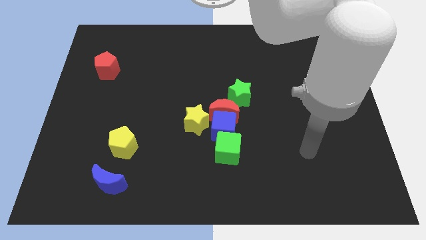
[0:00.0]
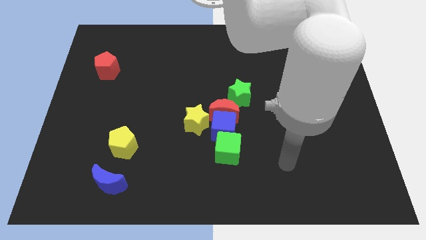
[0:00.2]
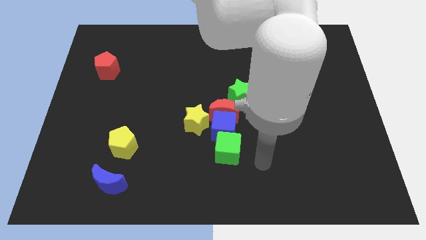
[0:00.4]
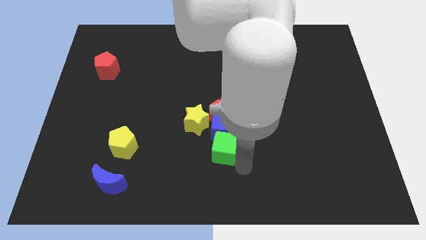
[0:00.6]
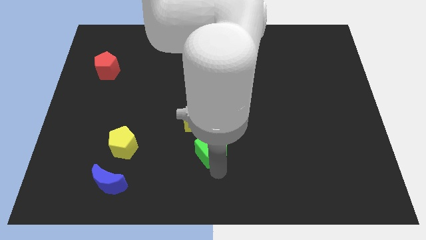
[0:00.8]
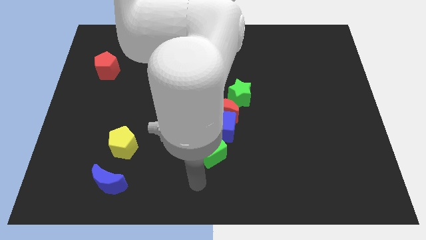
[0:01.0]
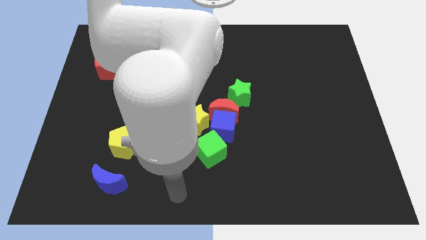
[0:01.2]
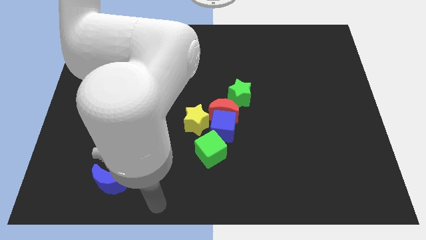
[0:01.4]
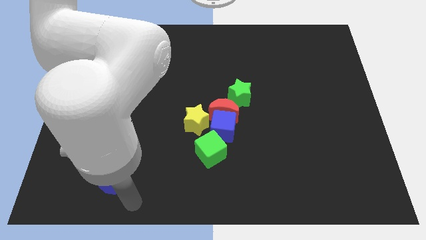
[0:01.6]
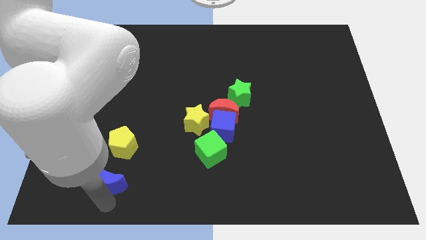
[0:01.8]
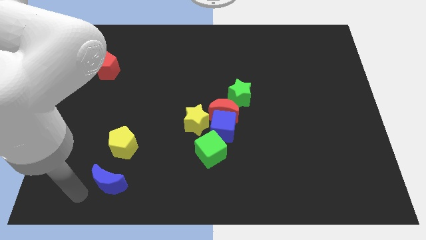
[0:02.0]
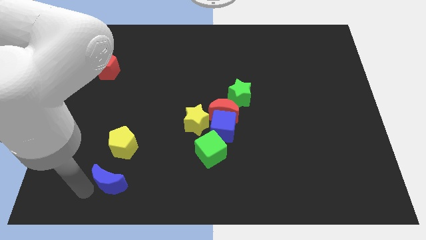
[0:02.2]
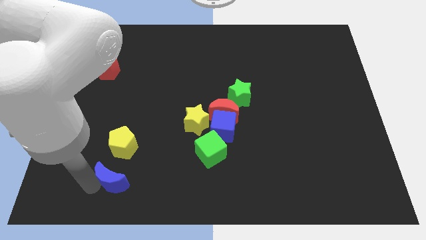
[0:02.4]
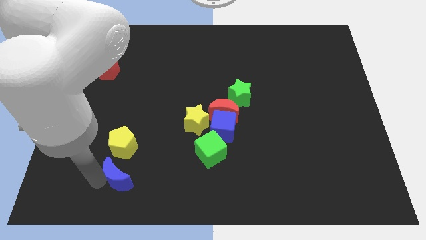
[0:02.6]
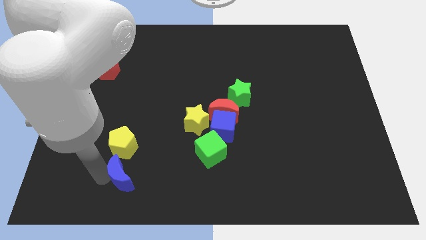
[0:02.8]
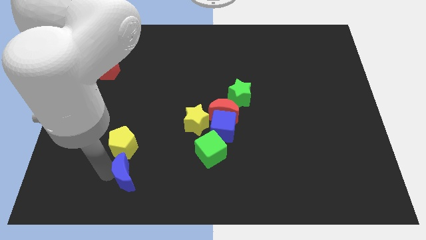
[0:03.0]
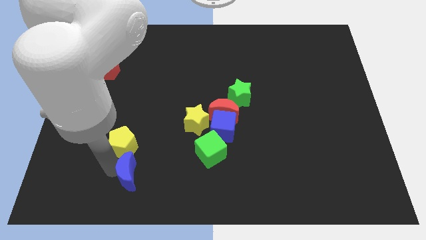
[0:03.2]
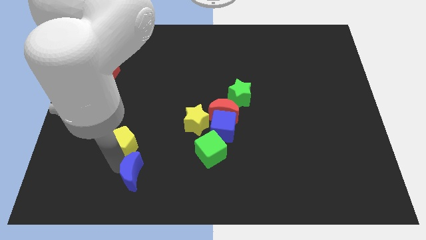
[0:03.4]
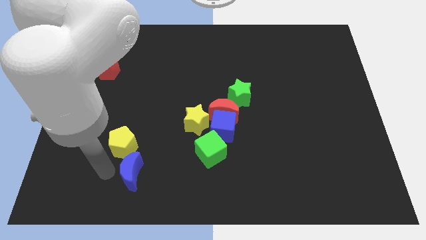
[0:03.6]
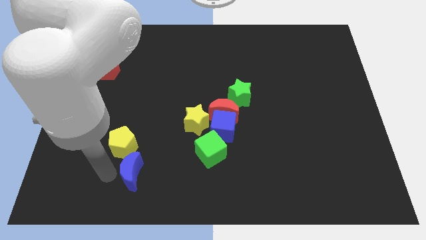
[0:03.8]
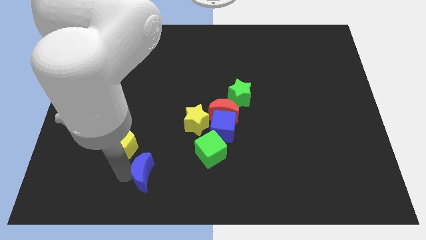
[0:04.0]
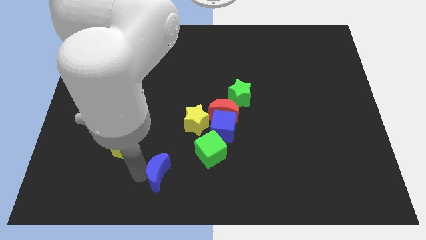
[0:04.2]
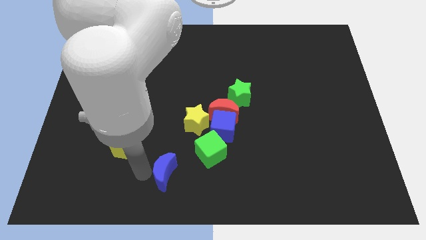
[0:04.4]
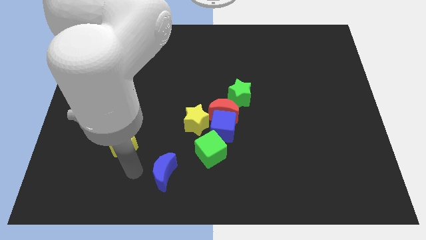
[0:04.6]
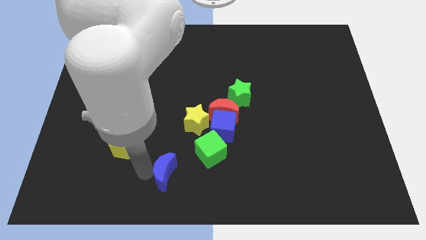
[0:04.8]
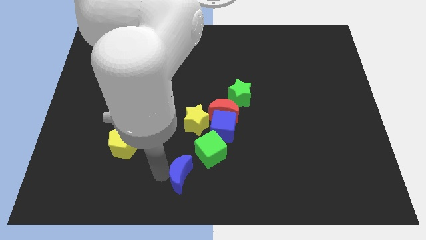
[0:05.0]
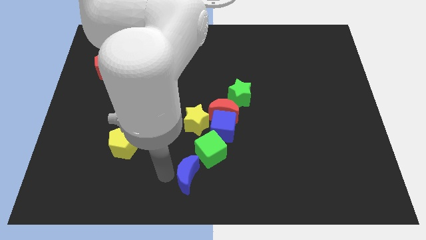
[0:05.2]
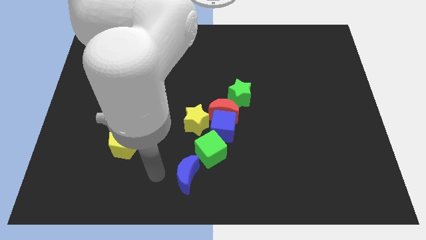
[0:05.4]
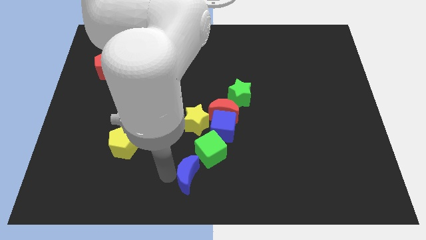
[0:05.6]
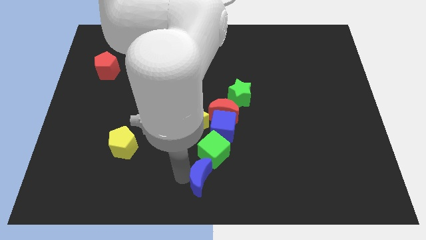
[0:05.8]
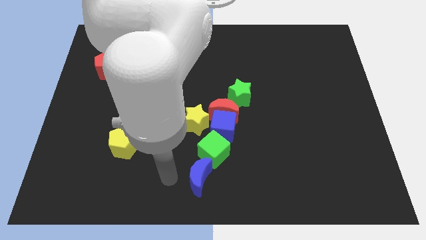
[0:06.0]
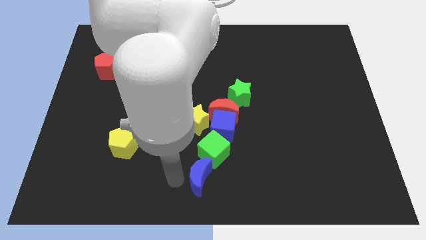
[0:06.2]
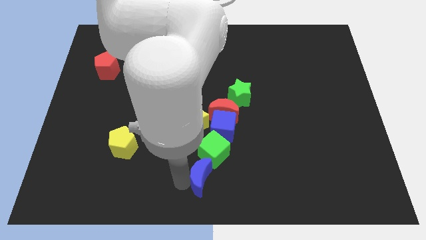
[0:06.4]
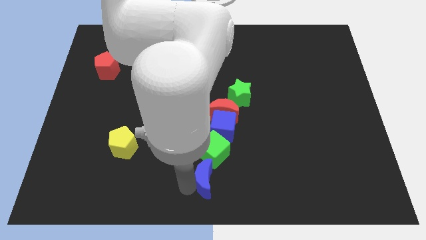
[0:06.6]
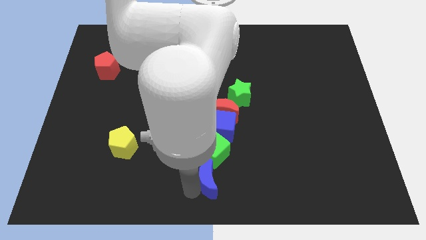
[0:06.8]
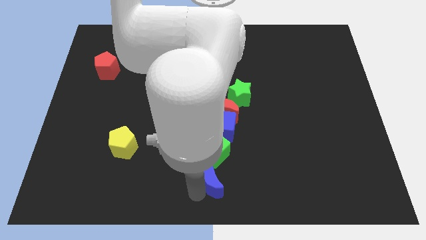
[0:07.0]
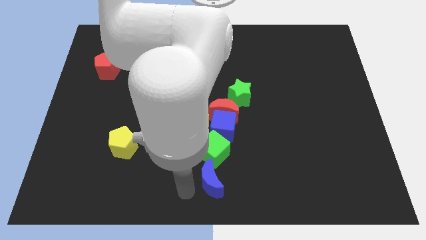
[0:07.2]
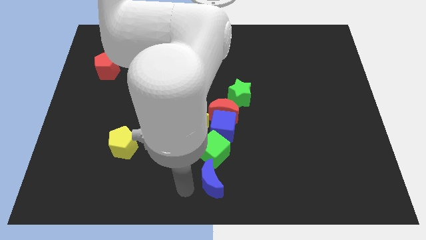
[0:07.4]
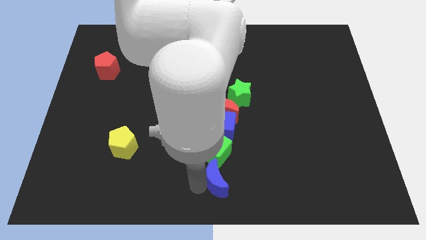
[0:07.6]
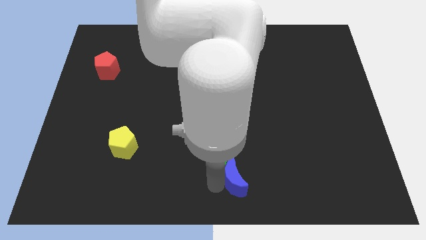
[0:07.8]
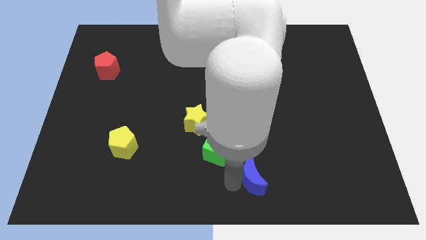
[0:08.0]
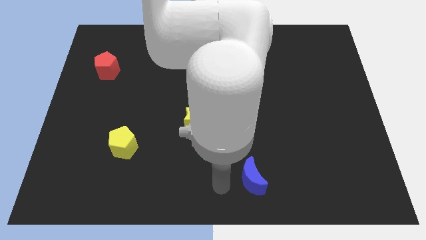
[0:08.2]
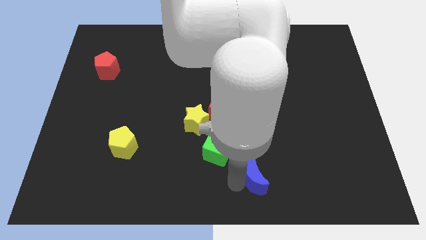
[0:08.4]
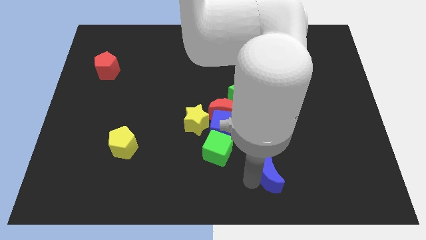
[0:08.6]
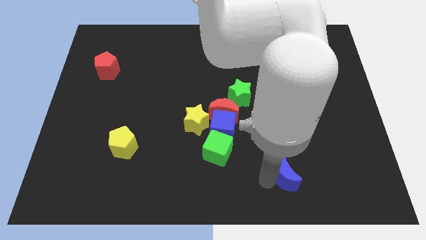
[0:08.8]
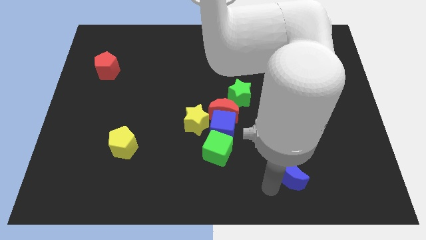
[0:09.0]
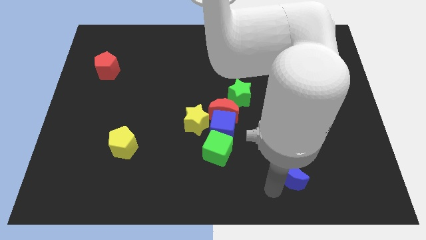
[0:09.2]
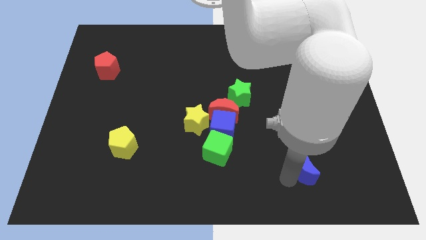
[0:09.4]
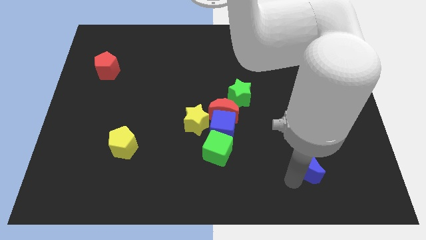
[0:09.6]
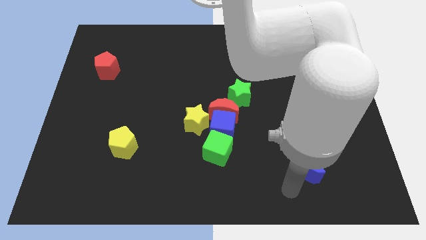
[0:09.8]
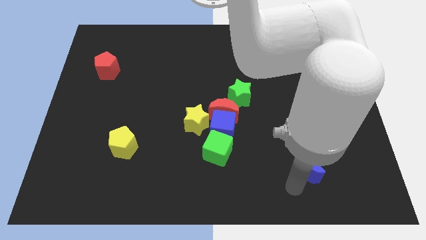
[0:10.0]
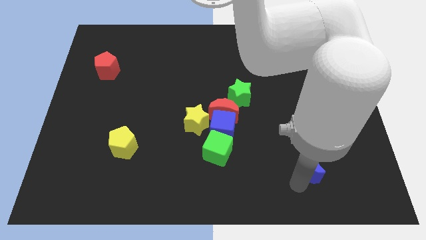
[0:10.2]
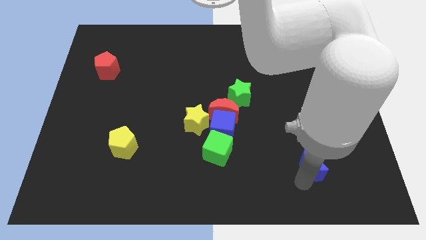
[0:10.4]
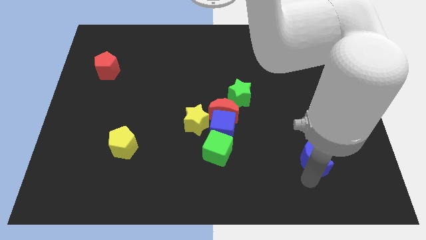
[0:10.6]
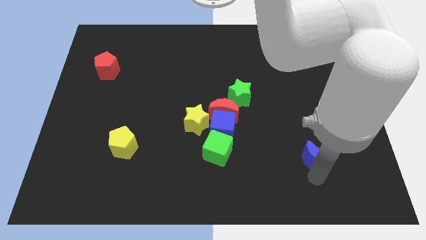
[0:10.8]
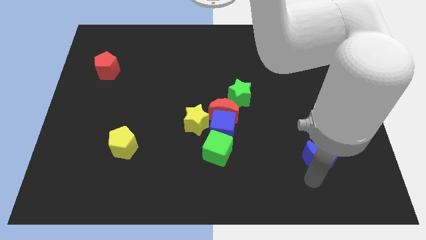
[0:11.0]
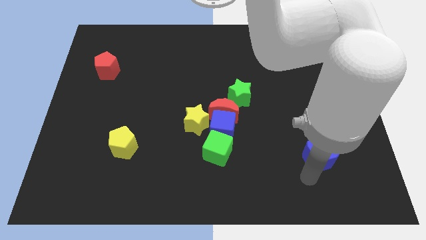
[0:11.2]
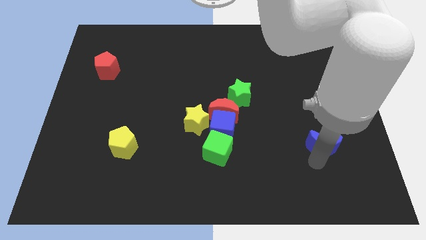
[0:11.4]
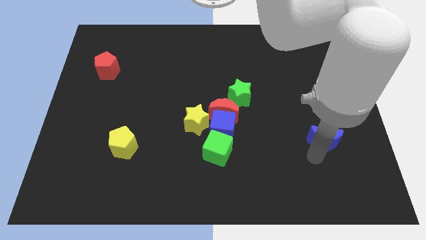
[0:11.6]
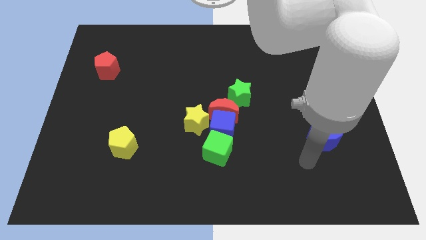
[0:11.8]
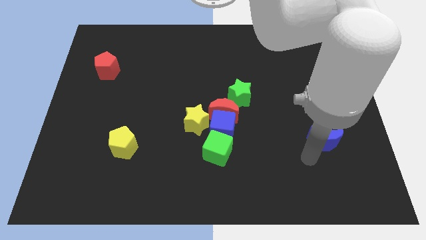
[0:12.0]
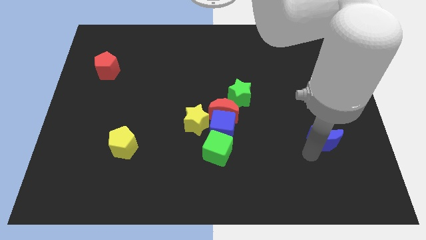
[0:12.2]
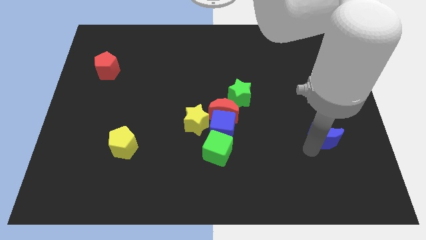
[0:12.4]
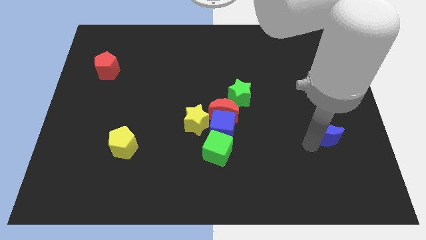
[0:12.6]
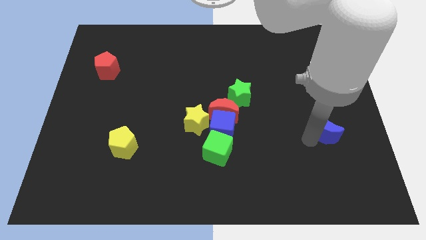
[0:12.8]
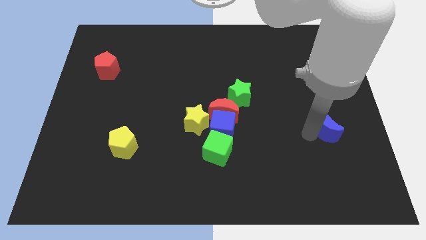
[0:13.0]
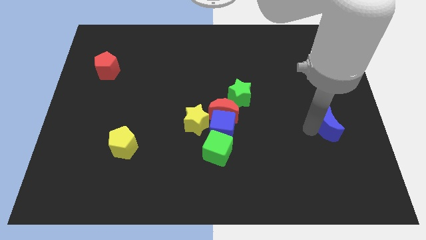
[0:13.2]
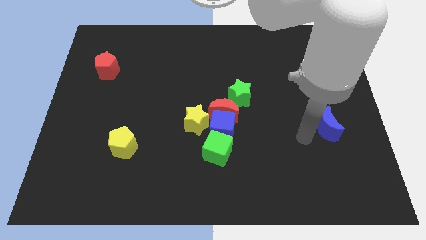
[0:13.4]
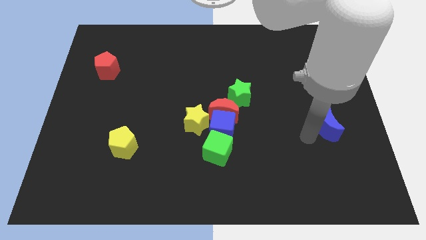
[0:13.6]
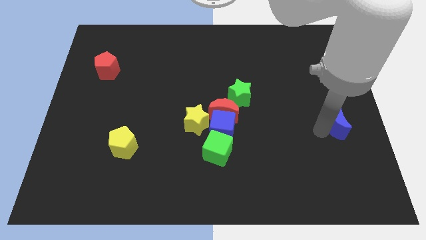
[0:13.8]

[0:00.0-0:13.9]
put the blue moon to the right side of the board
